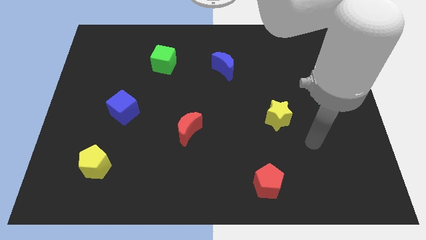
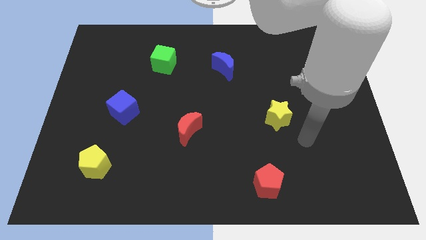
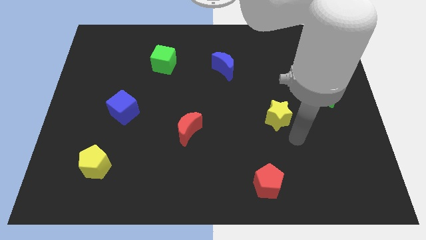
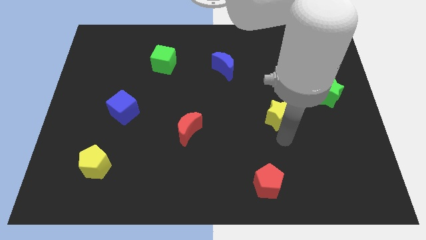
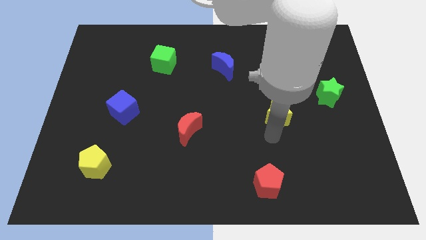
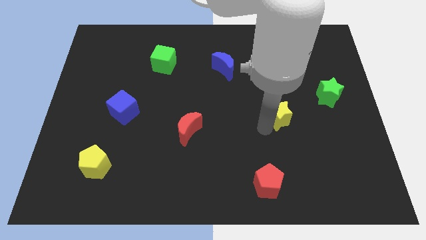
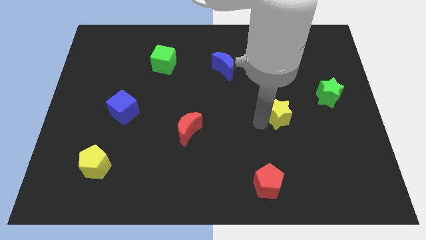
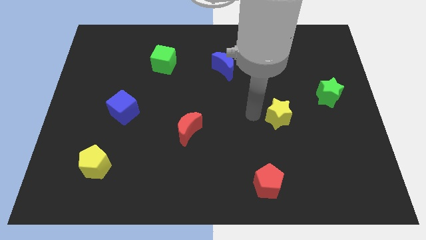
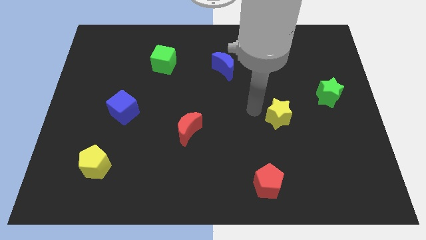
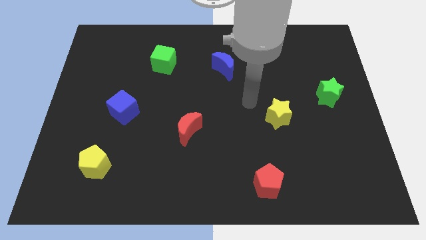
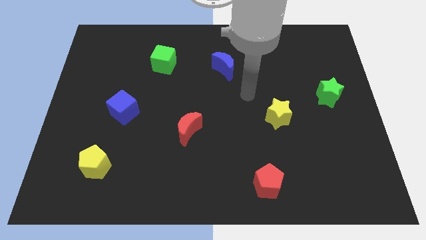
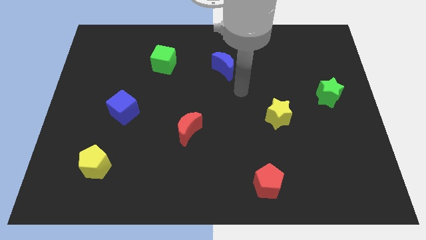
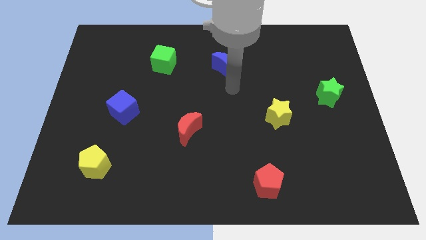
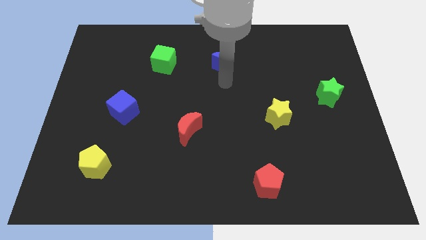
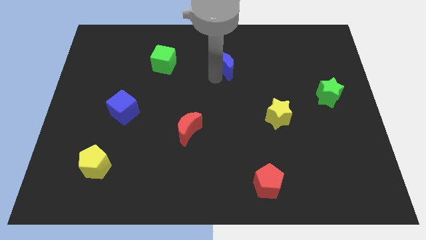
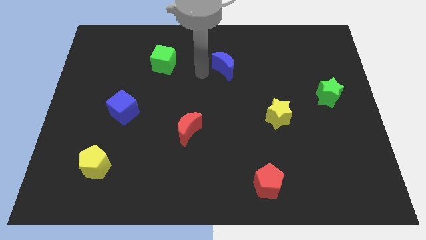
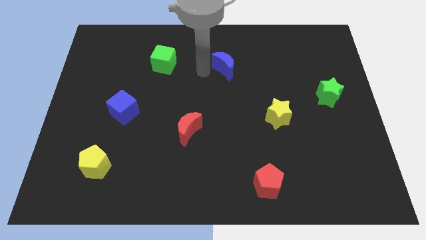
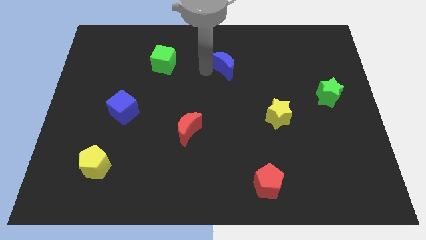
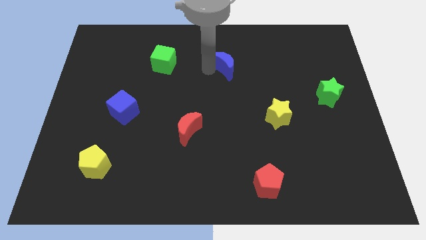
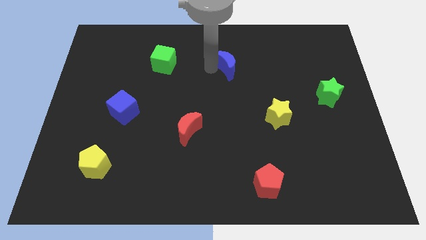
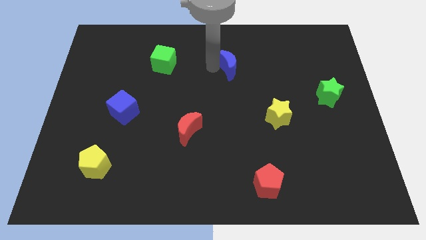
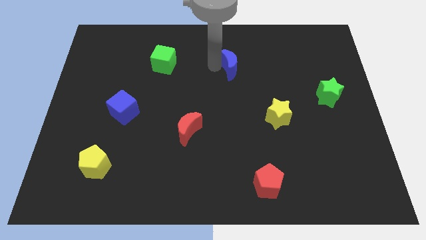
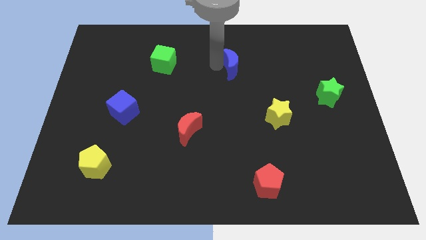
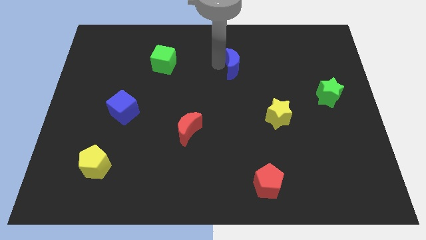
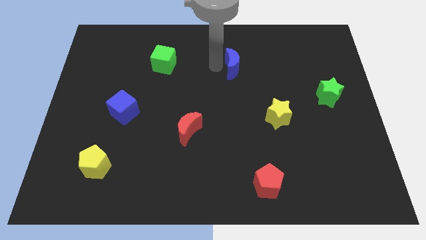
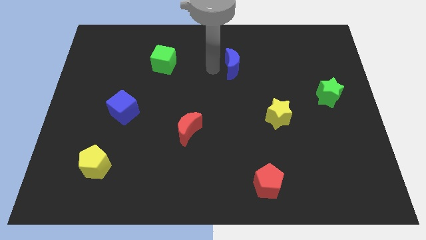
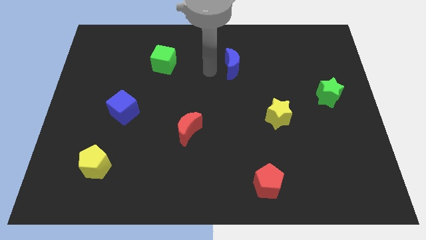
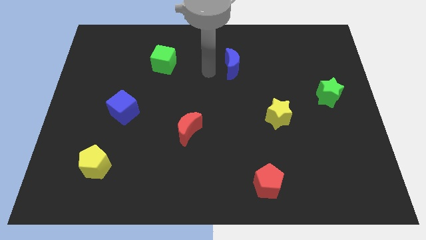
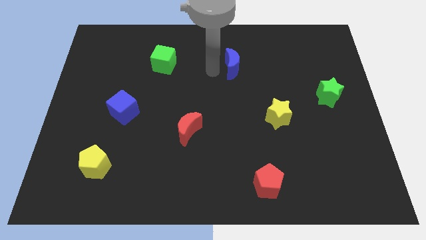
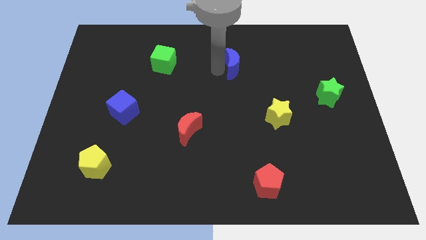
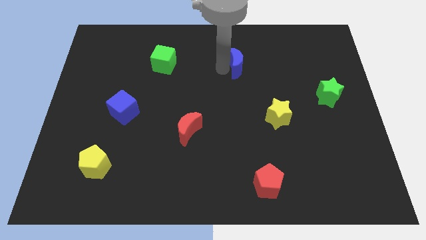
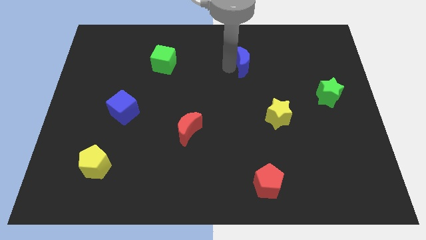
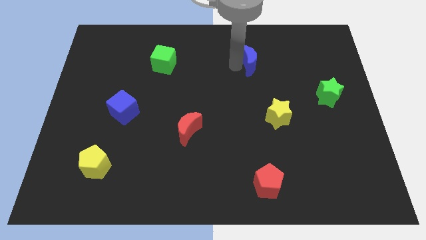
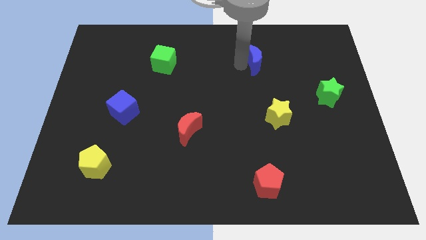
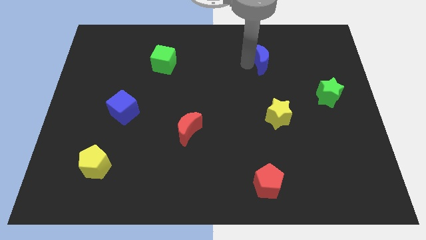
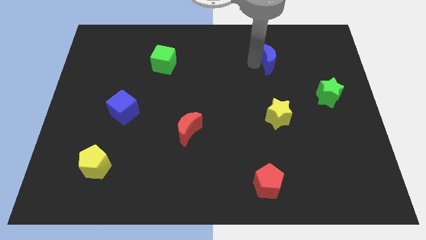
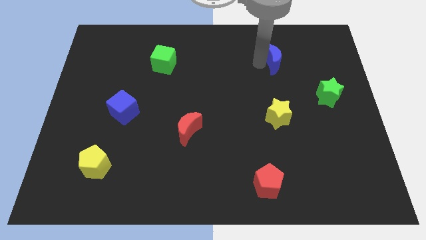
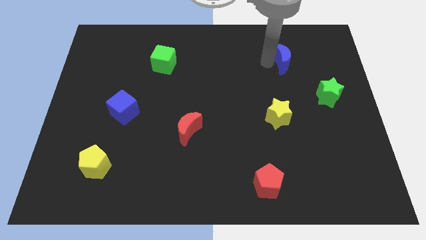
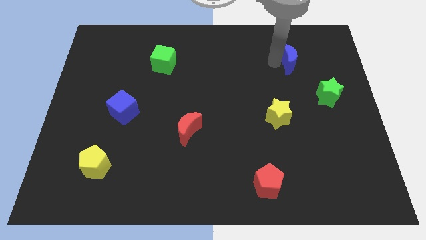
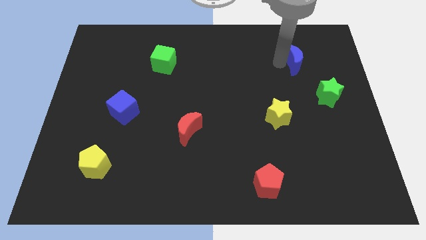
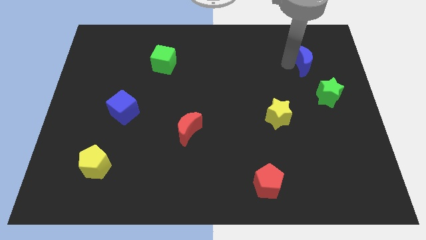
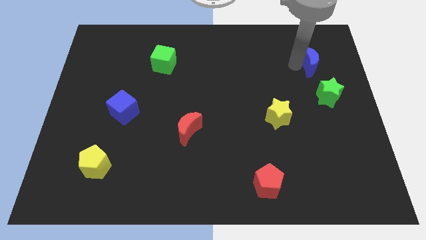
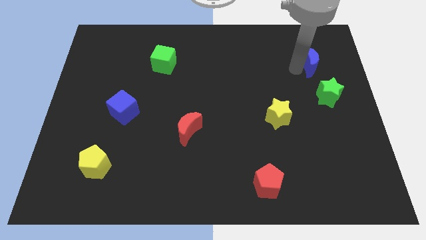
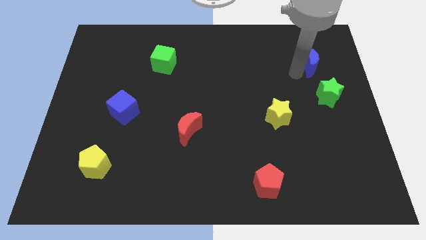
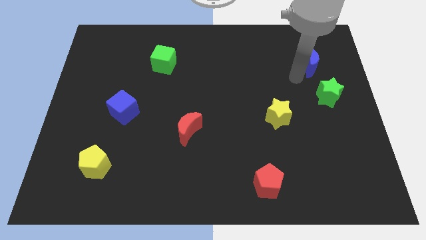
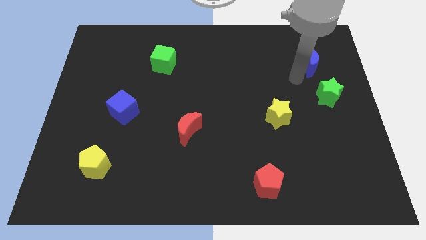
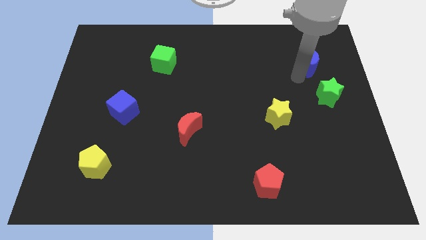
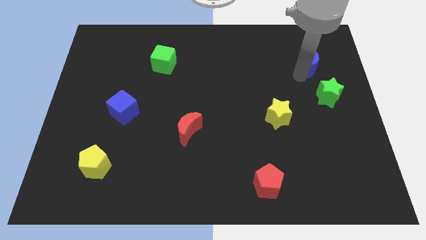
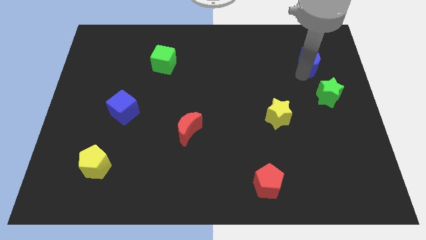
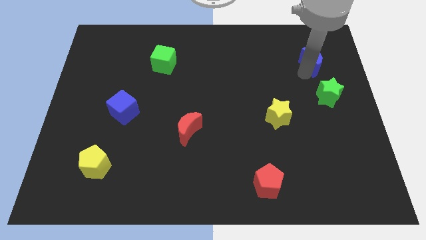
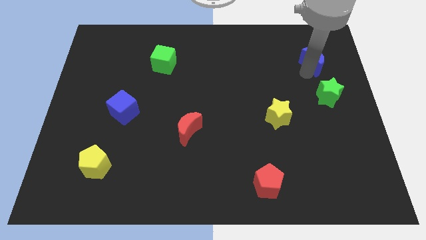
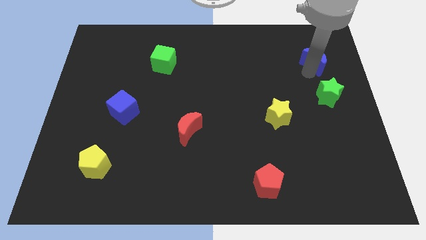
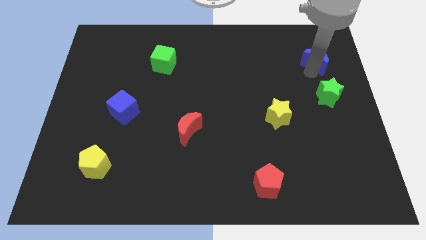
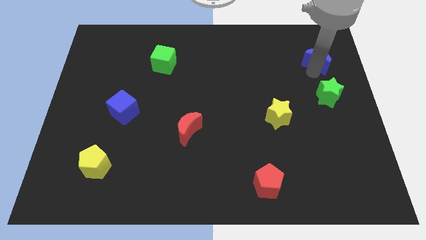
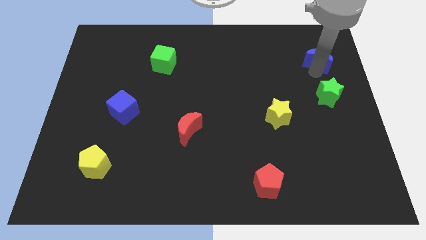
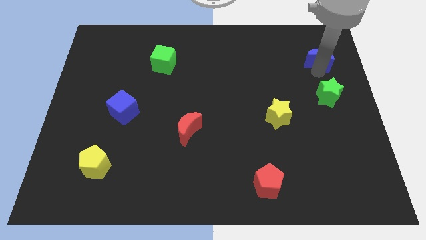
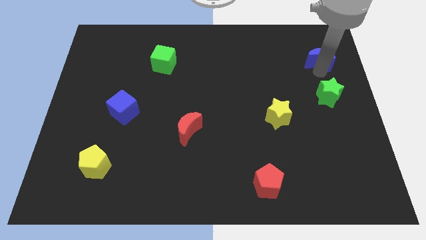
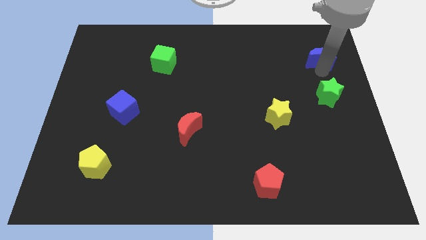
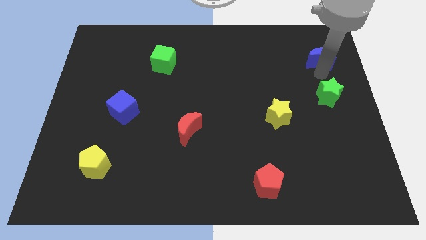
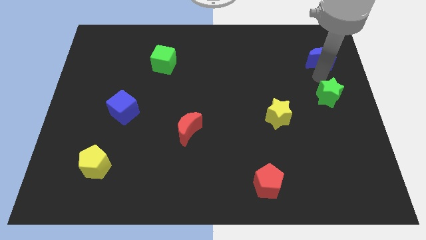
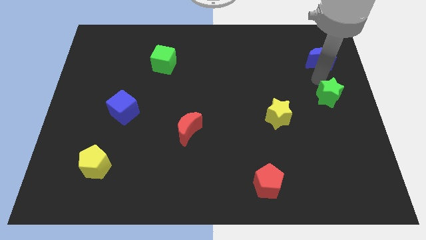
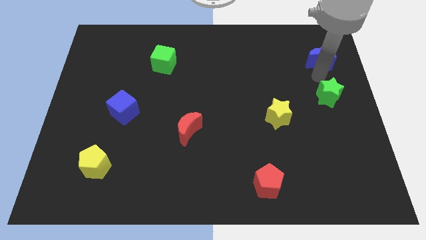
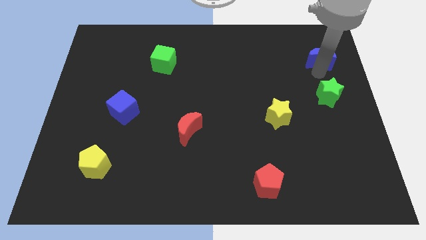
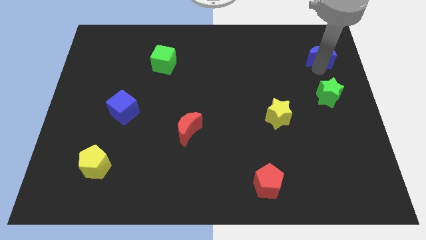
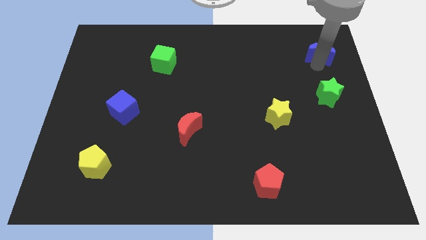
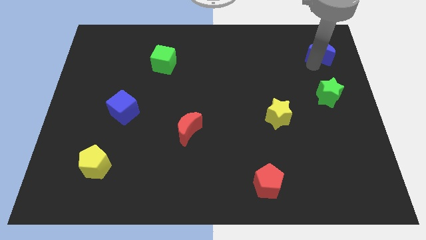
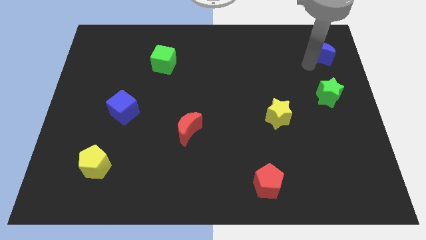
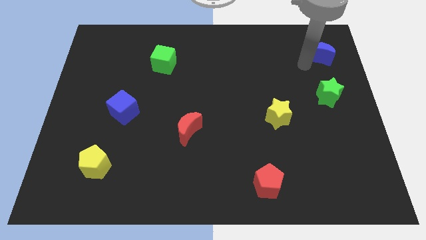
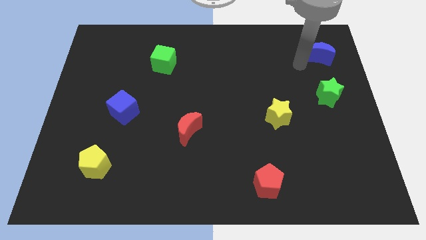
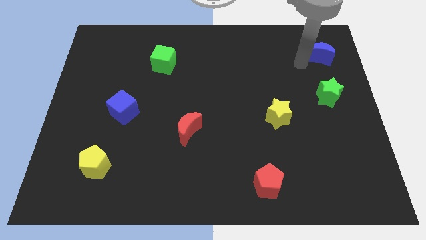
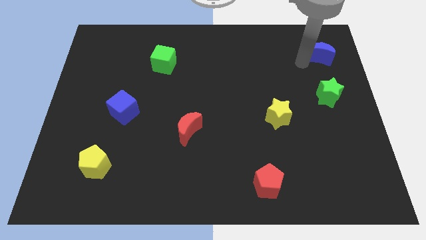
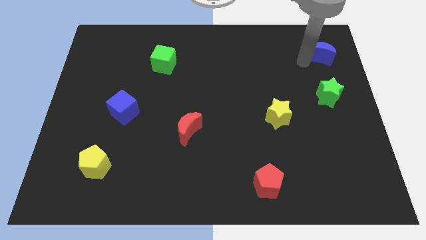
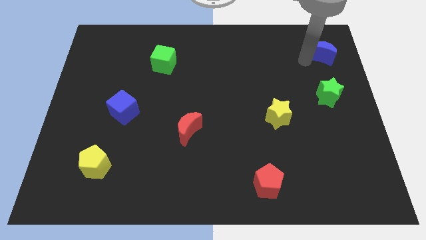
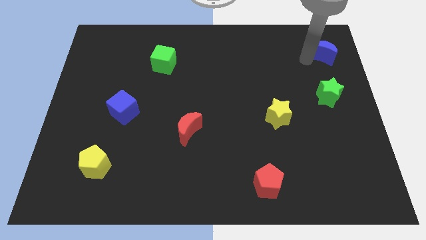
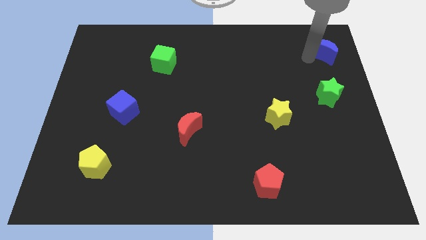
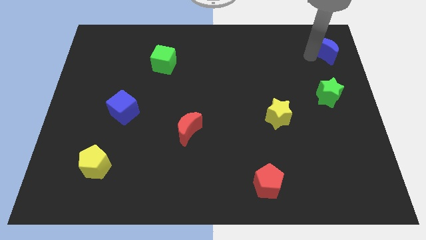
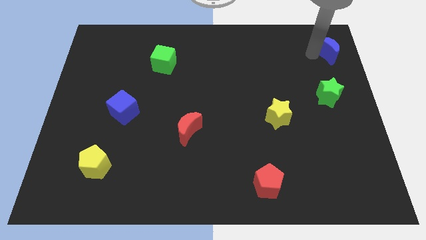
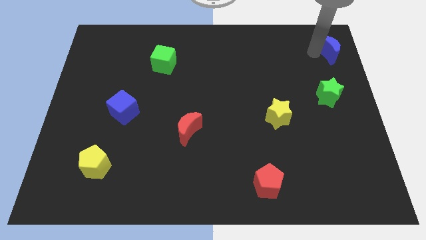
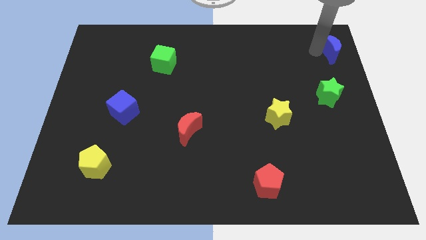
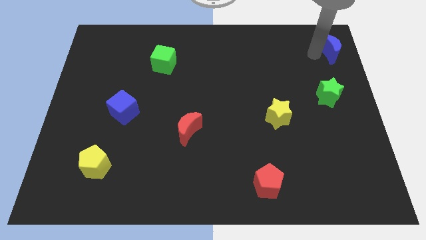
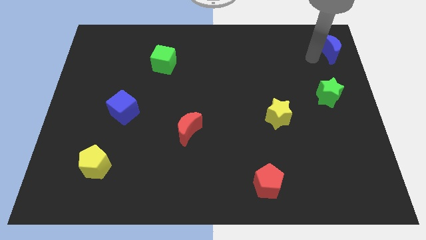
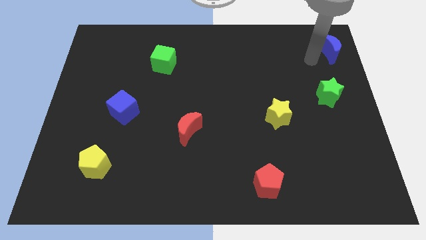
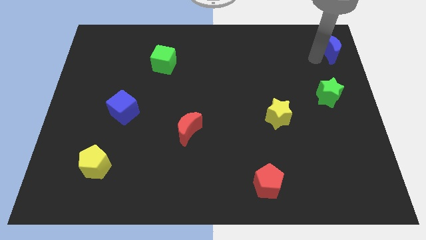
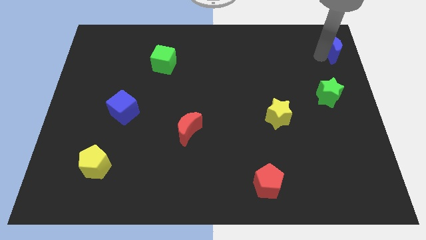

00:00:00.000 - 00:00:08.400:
push the blue moon to the upper right corner
